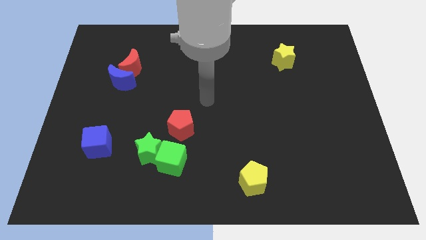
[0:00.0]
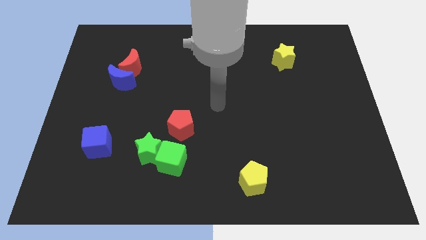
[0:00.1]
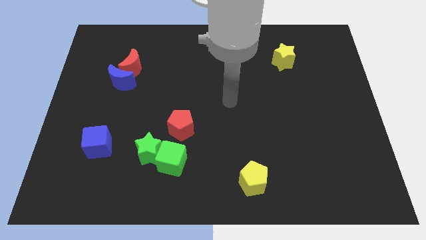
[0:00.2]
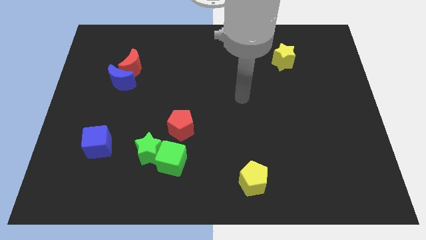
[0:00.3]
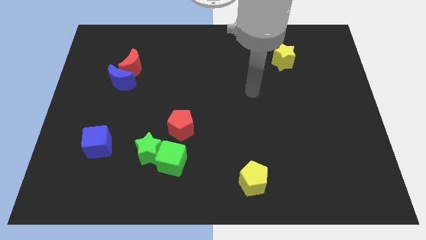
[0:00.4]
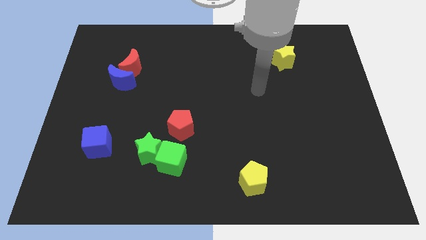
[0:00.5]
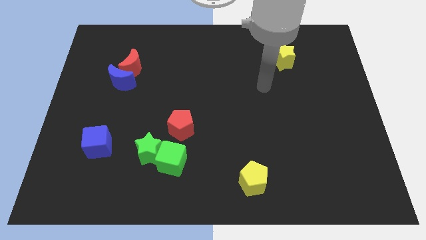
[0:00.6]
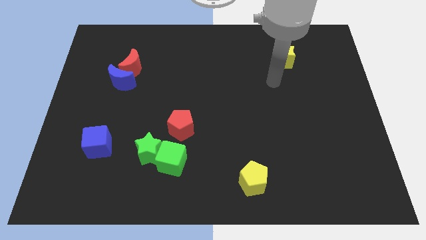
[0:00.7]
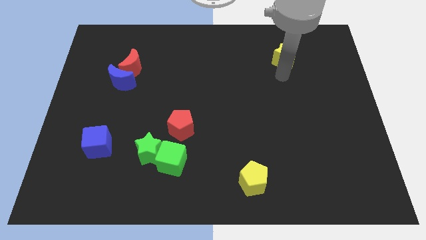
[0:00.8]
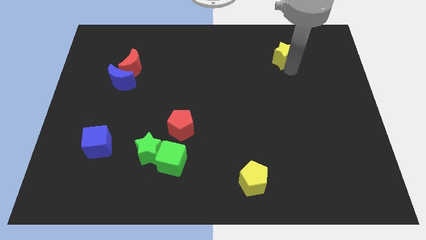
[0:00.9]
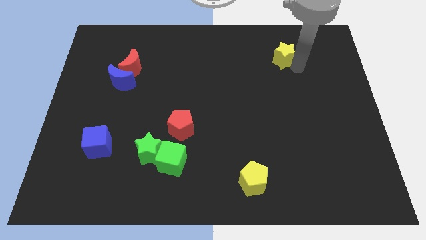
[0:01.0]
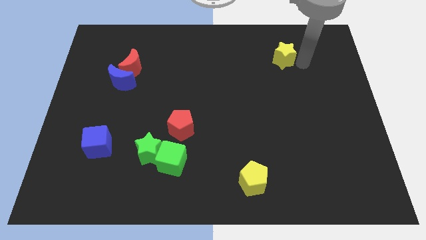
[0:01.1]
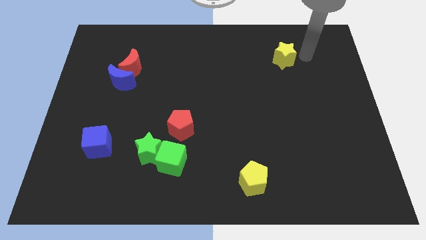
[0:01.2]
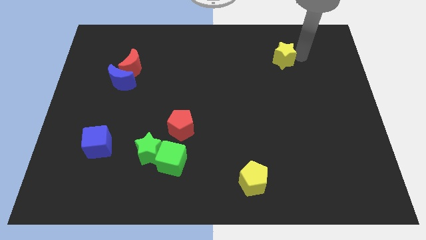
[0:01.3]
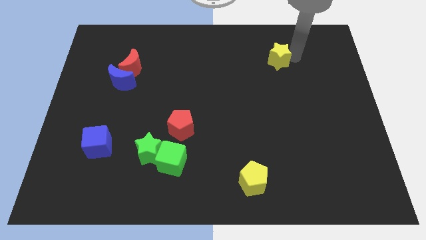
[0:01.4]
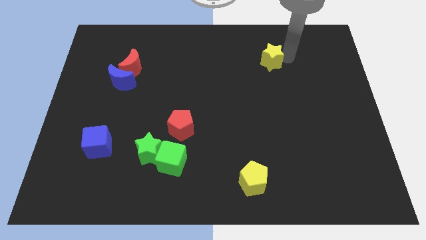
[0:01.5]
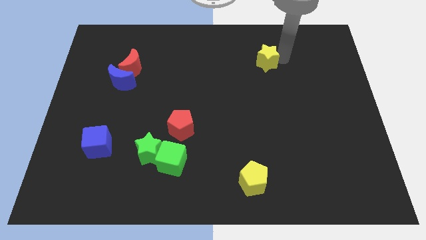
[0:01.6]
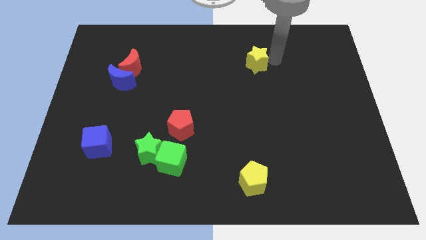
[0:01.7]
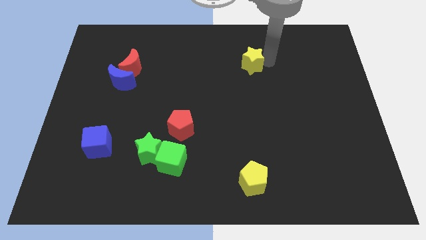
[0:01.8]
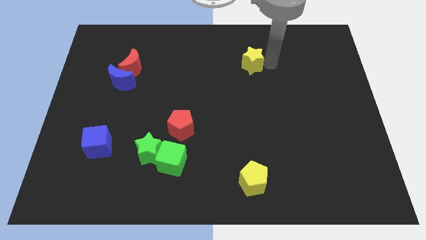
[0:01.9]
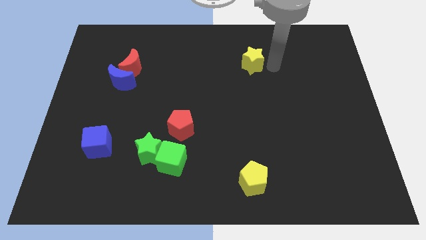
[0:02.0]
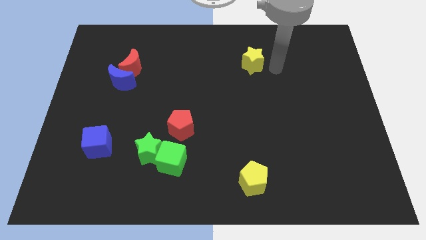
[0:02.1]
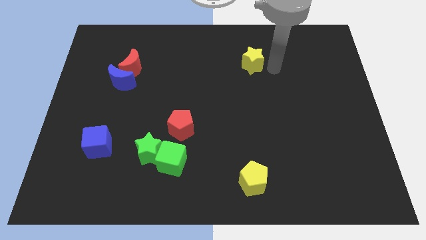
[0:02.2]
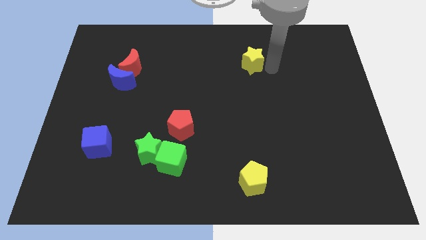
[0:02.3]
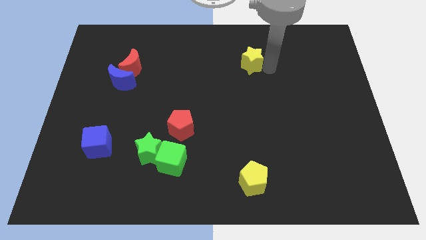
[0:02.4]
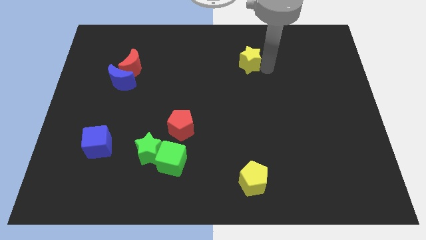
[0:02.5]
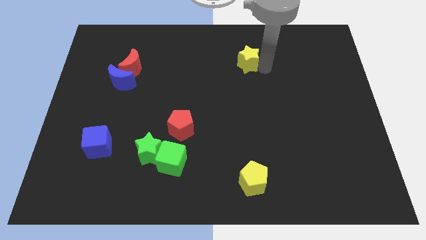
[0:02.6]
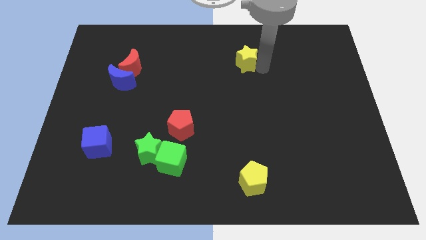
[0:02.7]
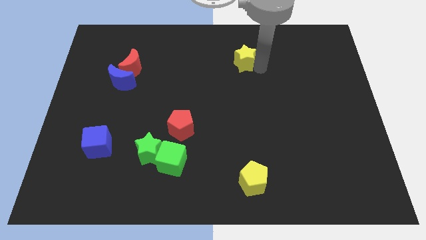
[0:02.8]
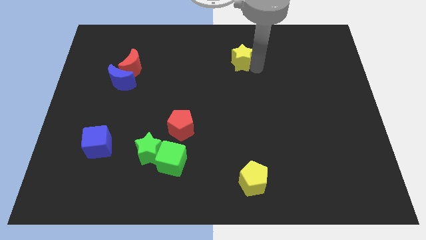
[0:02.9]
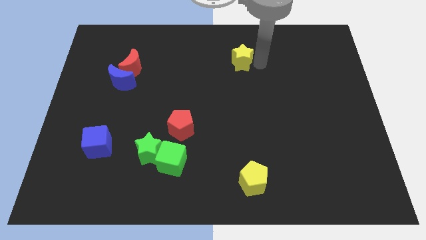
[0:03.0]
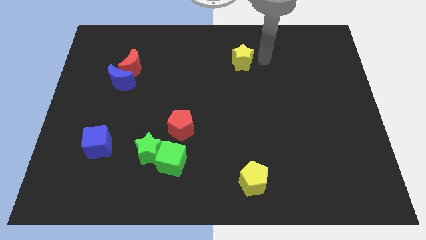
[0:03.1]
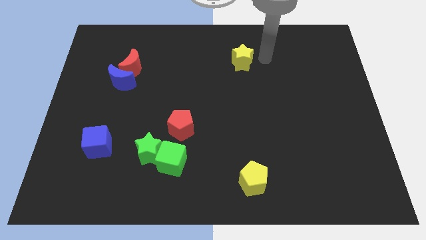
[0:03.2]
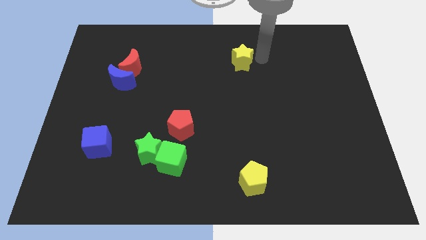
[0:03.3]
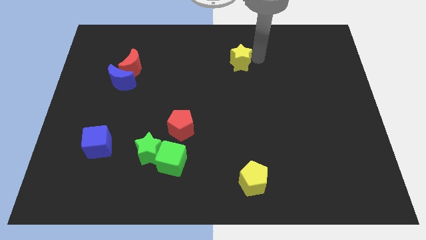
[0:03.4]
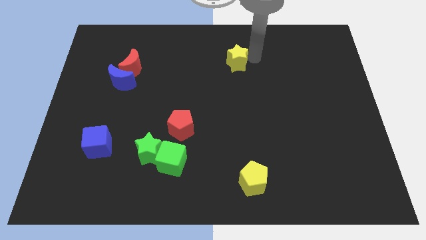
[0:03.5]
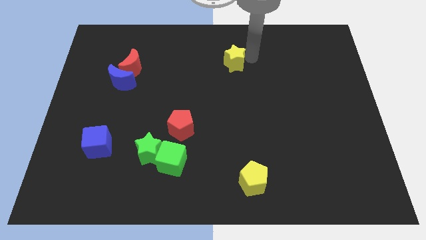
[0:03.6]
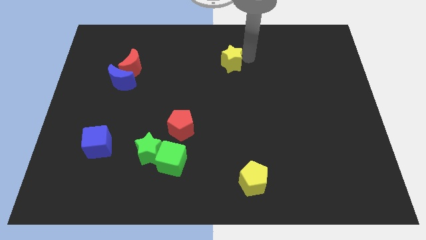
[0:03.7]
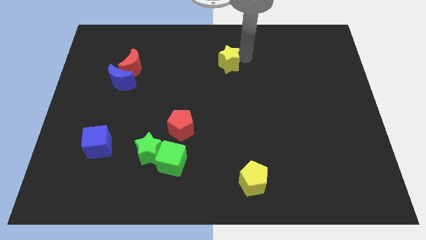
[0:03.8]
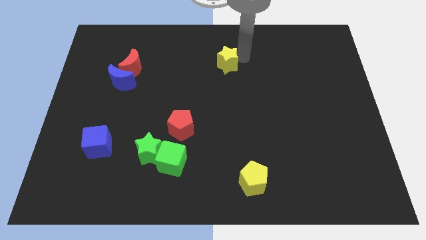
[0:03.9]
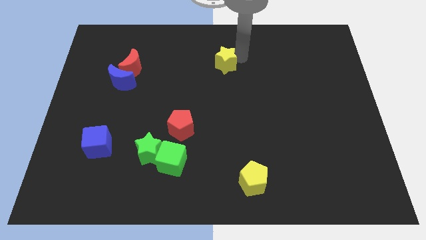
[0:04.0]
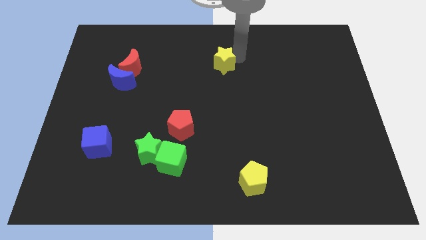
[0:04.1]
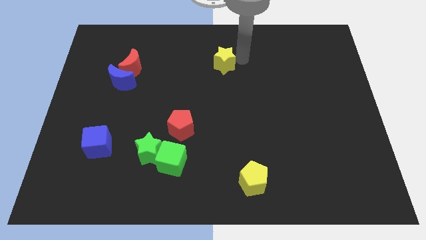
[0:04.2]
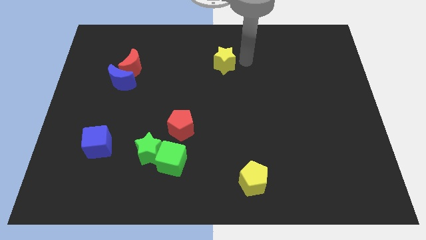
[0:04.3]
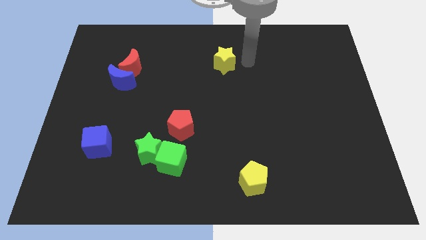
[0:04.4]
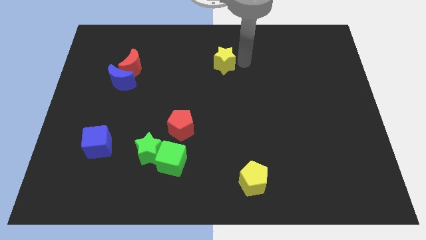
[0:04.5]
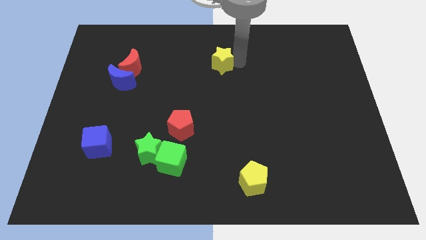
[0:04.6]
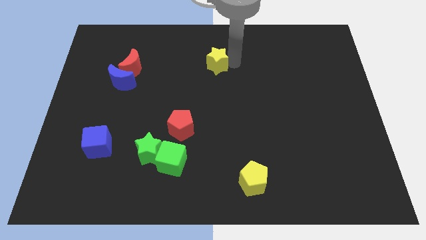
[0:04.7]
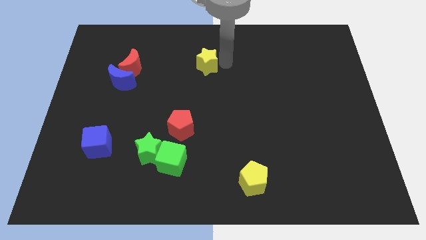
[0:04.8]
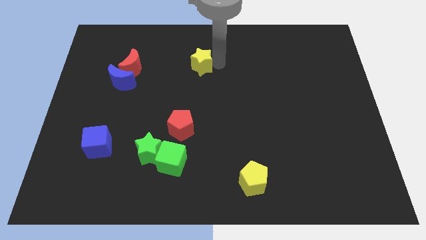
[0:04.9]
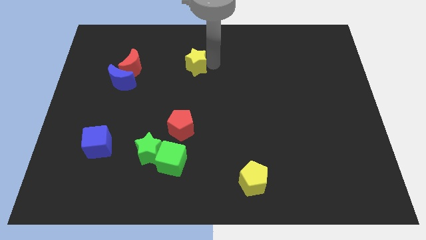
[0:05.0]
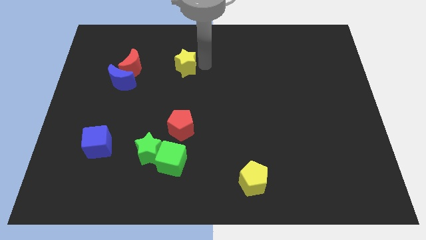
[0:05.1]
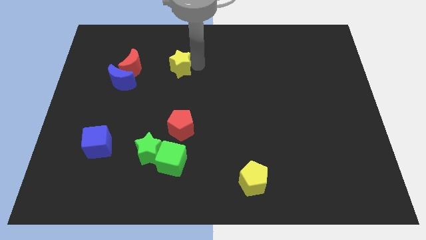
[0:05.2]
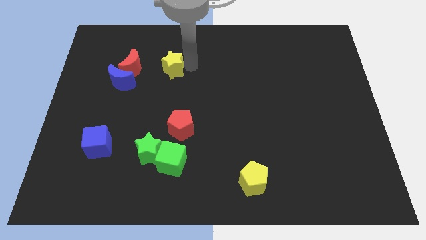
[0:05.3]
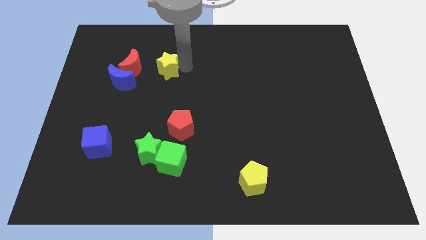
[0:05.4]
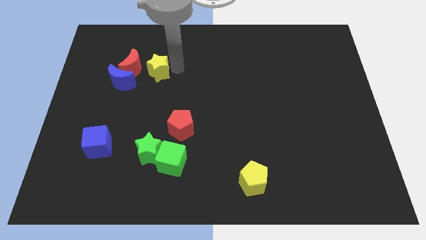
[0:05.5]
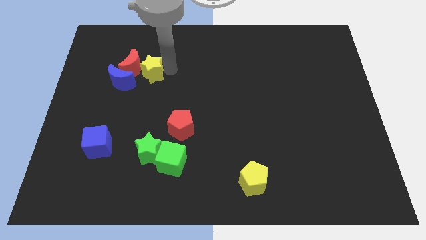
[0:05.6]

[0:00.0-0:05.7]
slide the yellow star next to the red moon

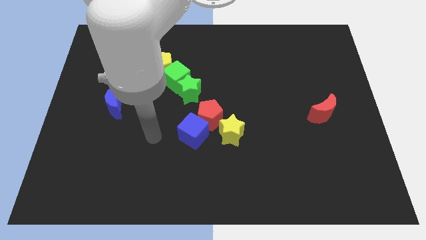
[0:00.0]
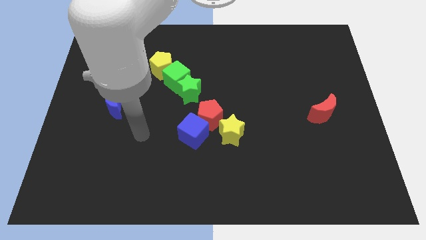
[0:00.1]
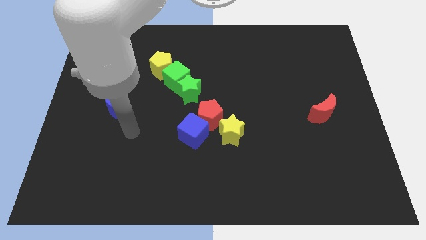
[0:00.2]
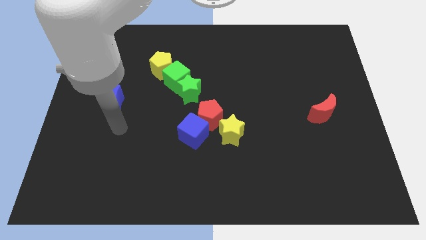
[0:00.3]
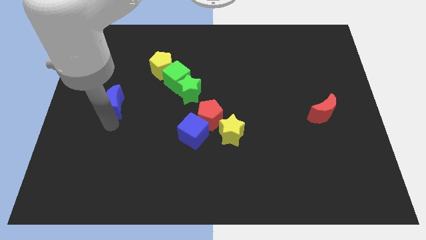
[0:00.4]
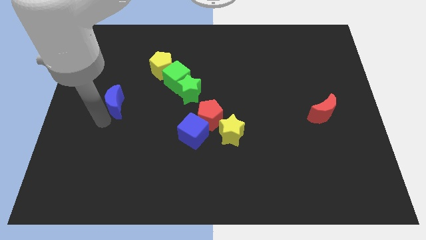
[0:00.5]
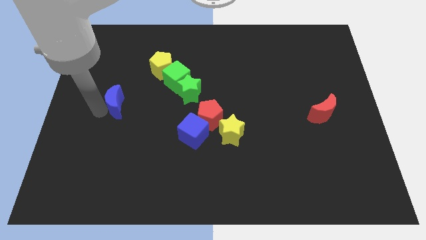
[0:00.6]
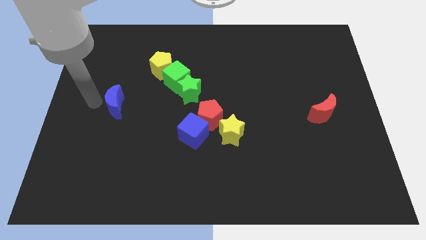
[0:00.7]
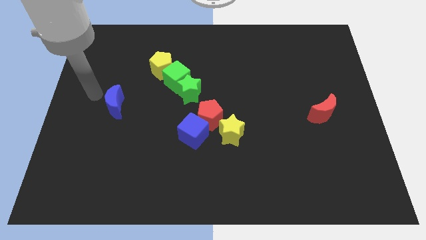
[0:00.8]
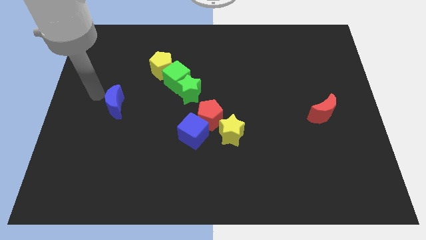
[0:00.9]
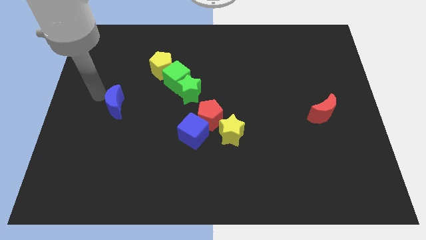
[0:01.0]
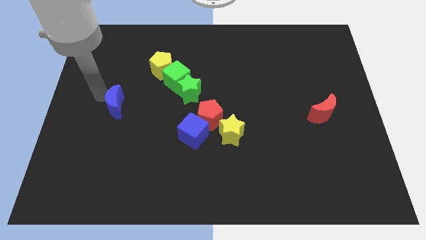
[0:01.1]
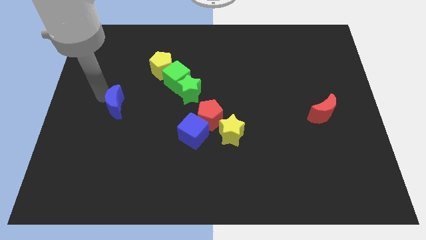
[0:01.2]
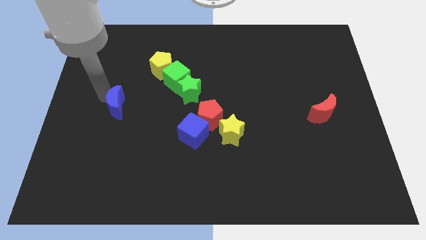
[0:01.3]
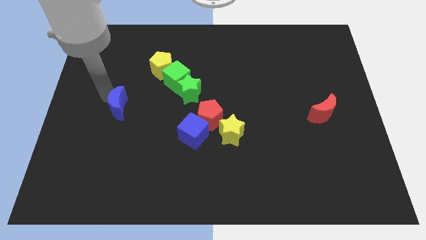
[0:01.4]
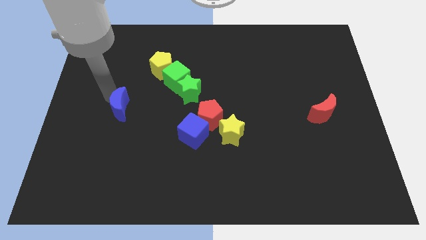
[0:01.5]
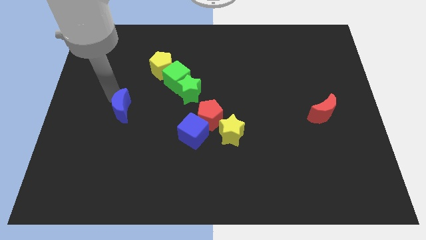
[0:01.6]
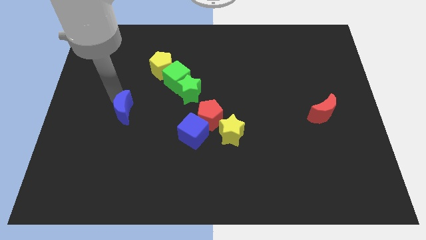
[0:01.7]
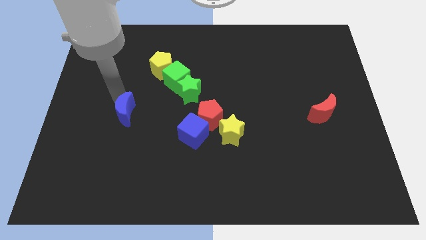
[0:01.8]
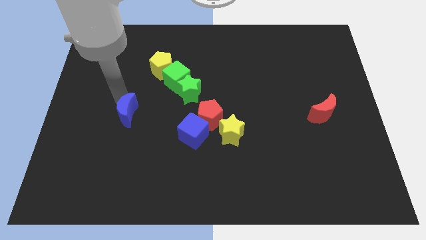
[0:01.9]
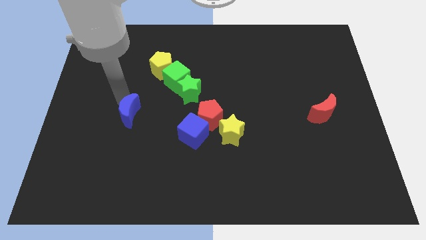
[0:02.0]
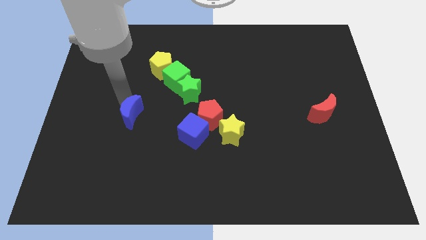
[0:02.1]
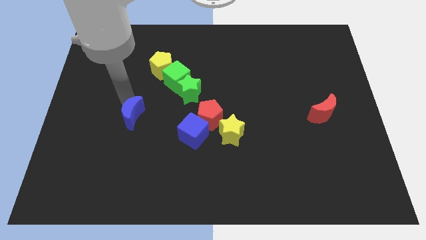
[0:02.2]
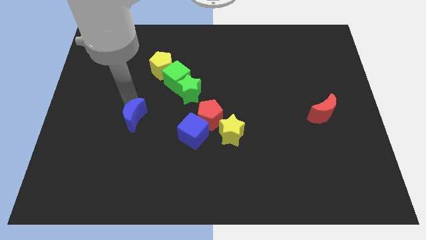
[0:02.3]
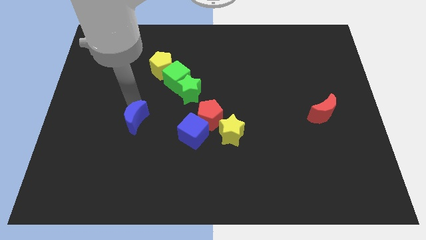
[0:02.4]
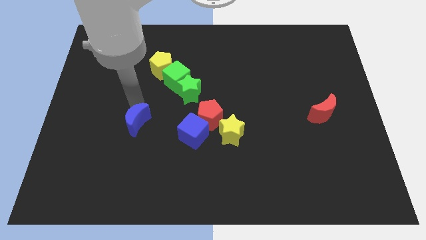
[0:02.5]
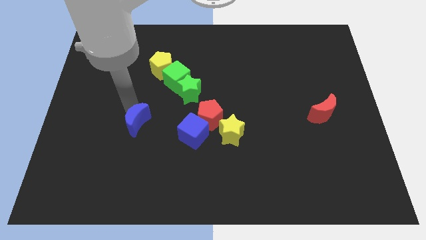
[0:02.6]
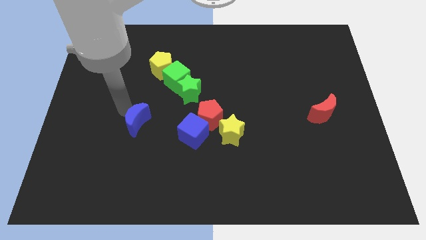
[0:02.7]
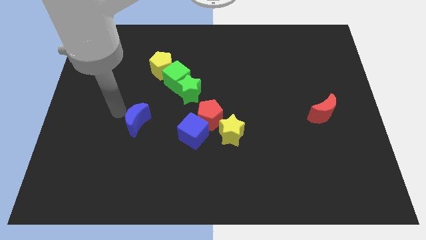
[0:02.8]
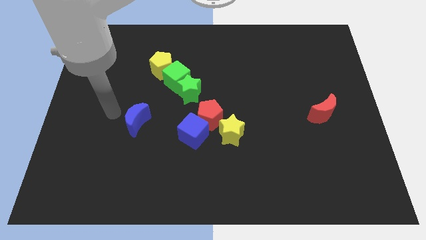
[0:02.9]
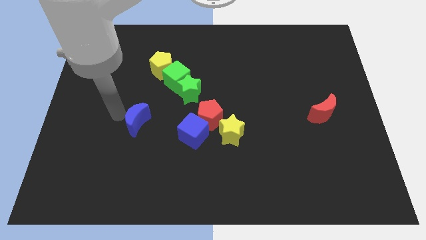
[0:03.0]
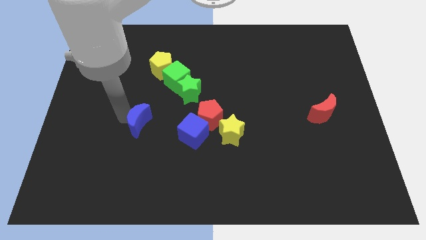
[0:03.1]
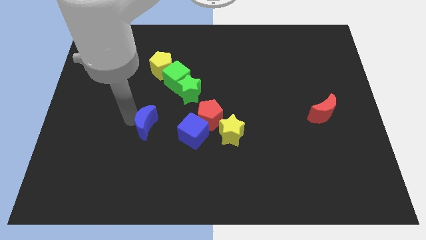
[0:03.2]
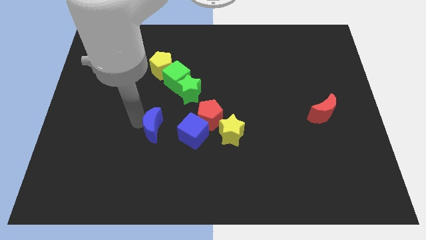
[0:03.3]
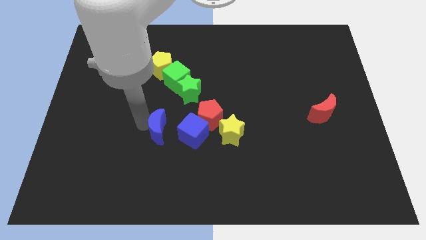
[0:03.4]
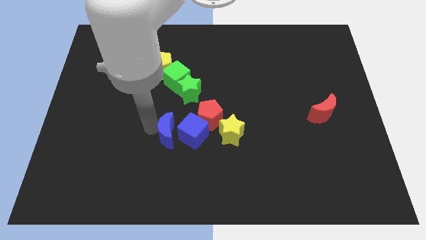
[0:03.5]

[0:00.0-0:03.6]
put the blue moon towards the blue cube
